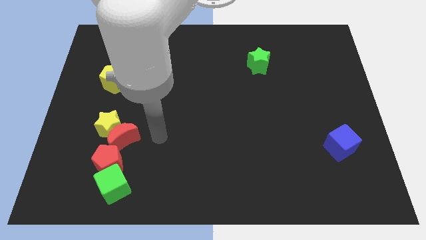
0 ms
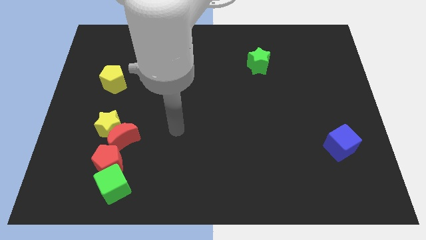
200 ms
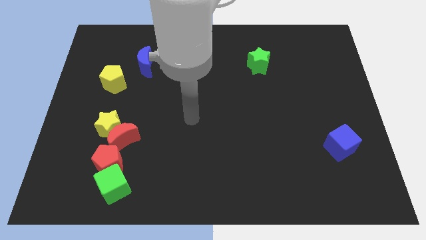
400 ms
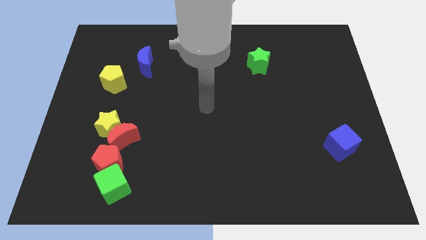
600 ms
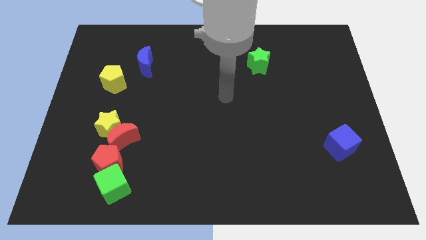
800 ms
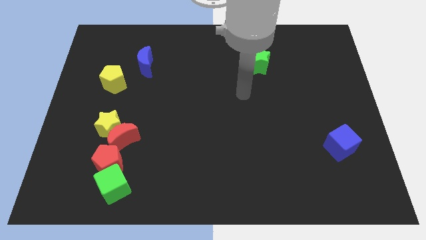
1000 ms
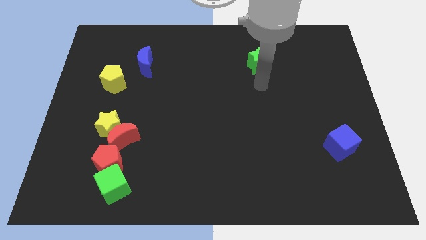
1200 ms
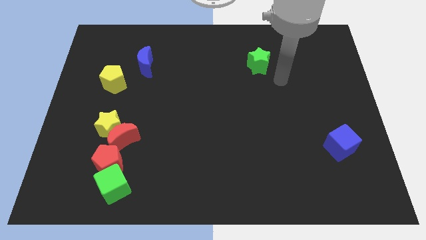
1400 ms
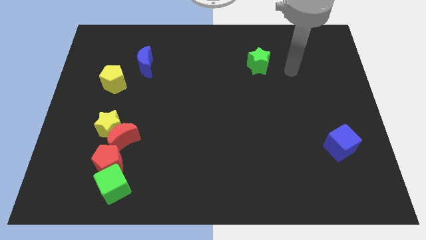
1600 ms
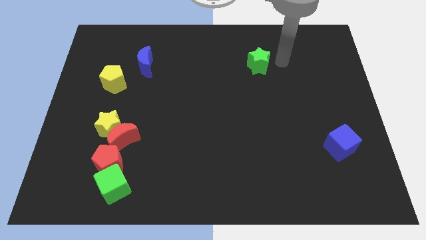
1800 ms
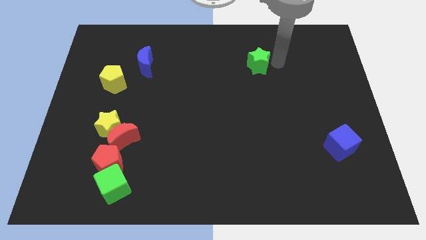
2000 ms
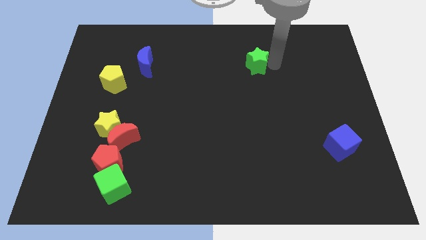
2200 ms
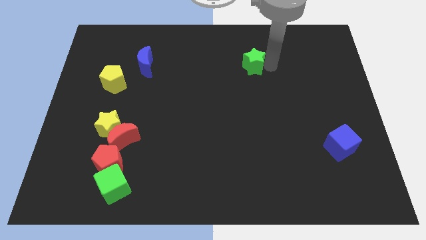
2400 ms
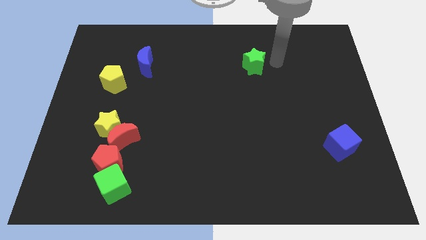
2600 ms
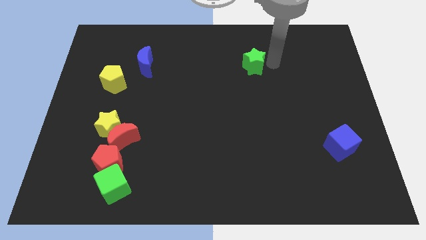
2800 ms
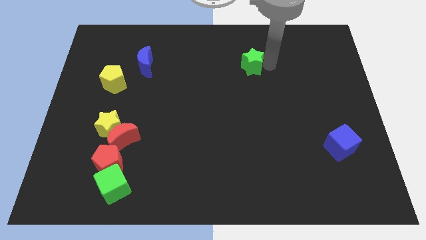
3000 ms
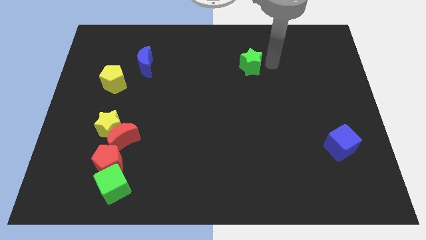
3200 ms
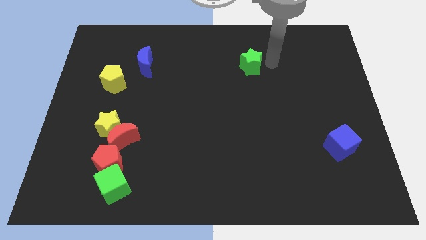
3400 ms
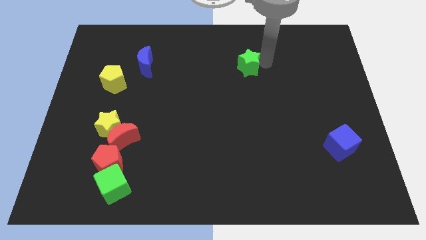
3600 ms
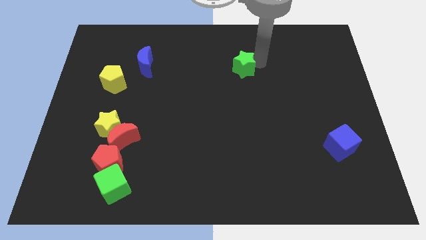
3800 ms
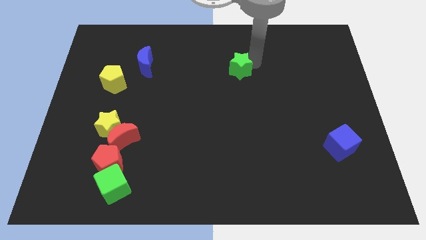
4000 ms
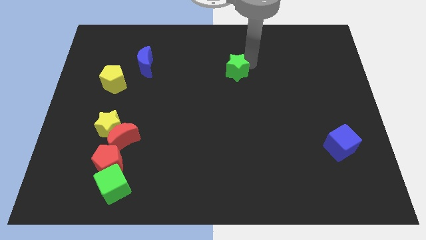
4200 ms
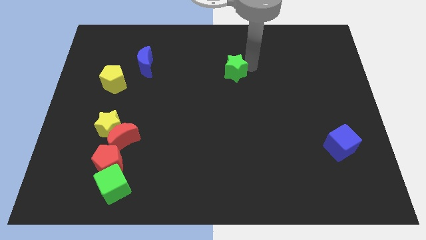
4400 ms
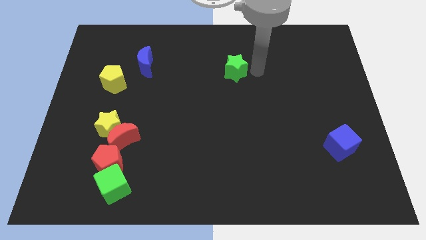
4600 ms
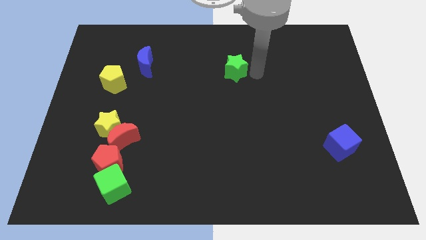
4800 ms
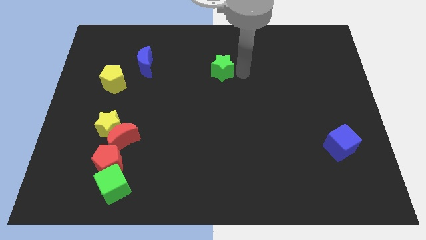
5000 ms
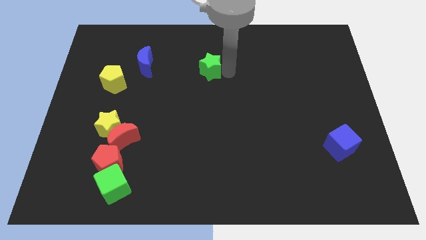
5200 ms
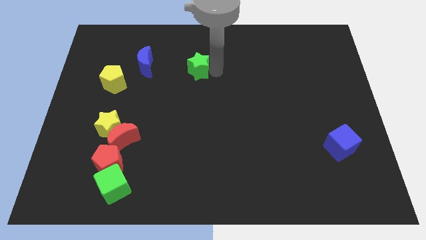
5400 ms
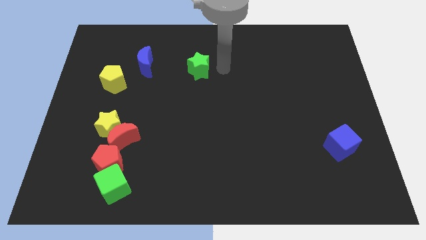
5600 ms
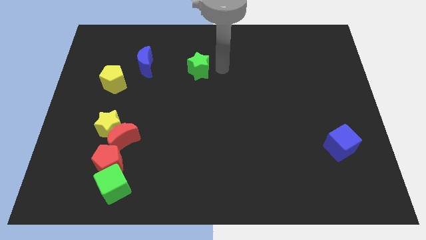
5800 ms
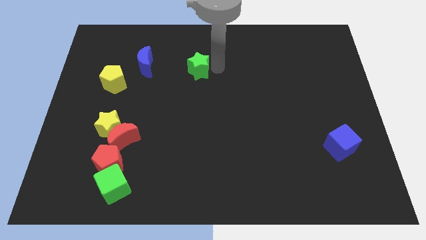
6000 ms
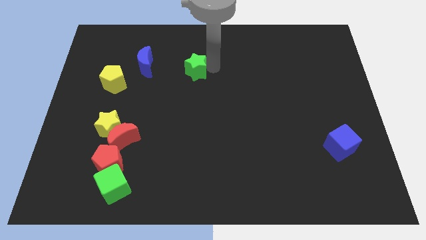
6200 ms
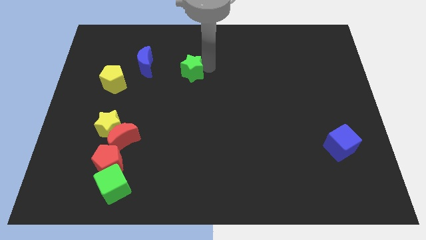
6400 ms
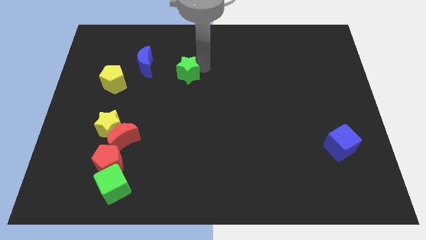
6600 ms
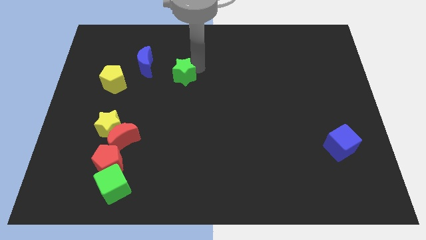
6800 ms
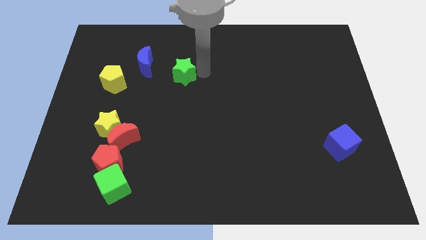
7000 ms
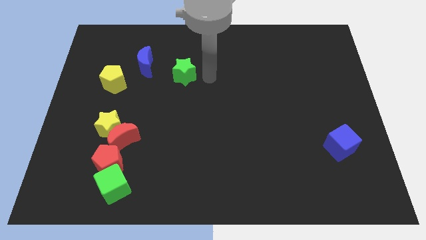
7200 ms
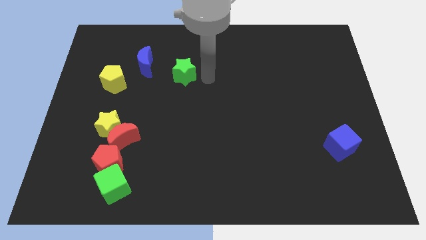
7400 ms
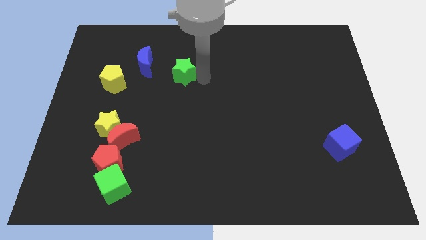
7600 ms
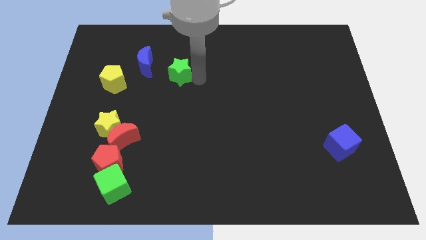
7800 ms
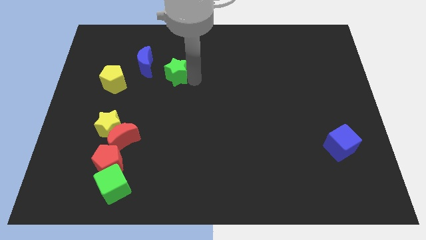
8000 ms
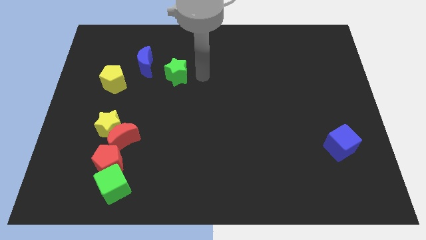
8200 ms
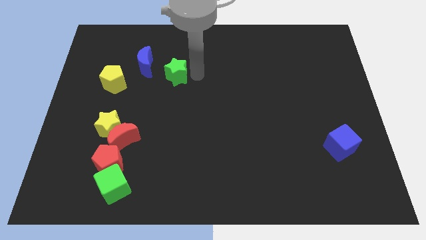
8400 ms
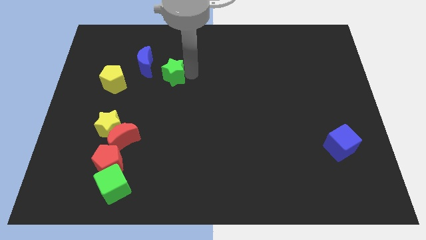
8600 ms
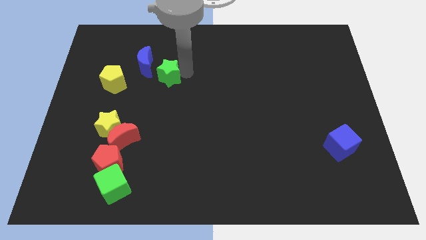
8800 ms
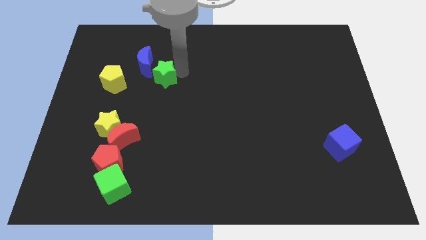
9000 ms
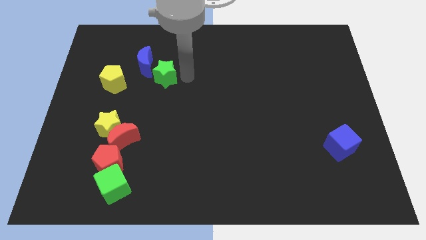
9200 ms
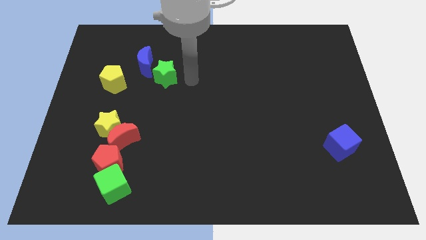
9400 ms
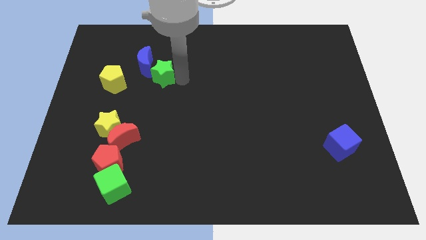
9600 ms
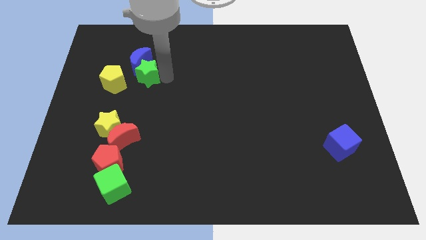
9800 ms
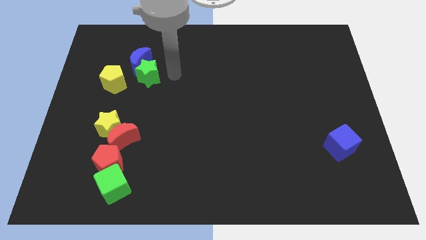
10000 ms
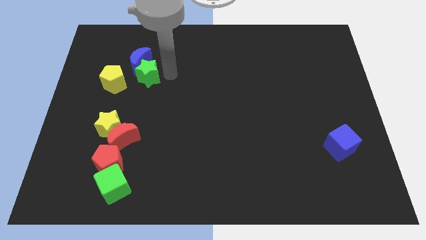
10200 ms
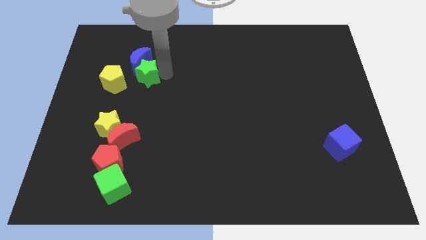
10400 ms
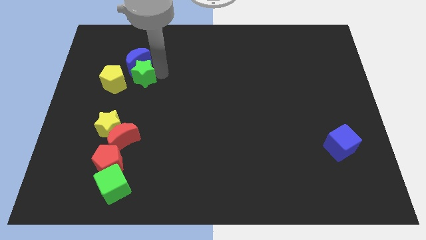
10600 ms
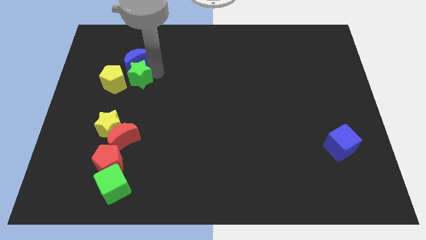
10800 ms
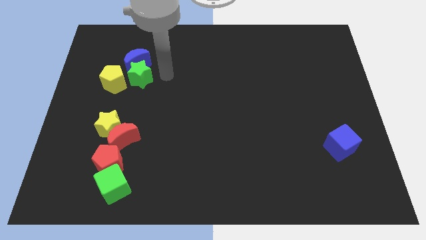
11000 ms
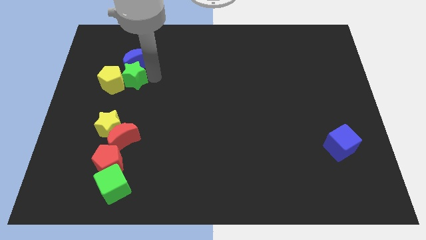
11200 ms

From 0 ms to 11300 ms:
slide the green star next to the yellow pentagon

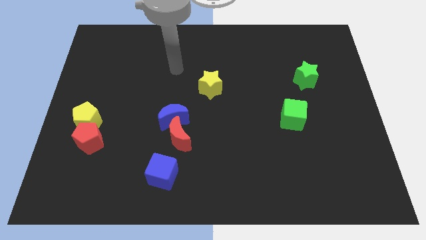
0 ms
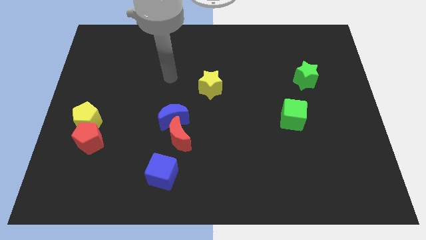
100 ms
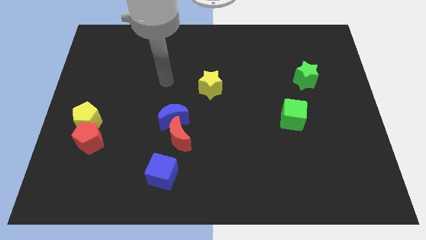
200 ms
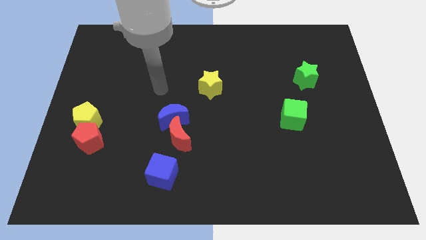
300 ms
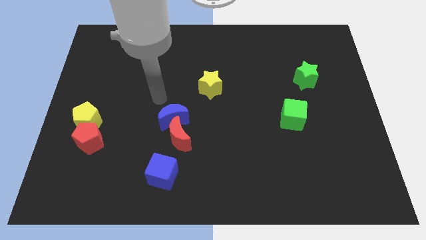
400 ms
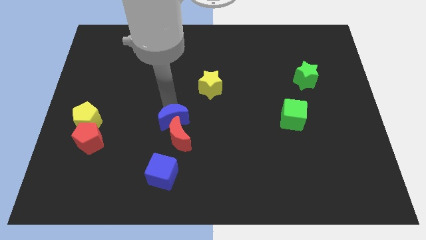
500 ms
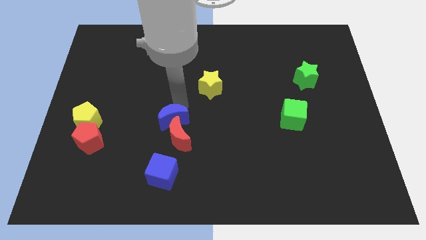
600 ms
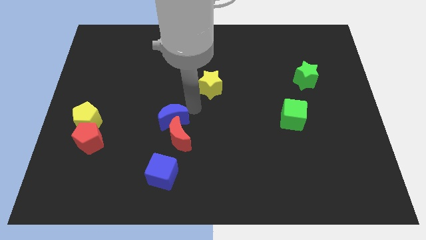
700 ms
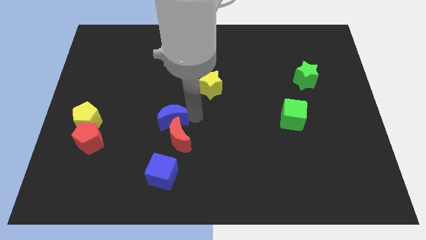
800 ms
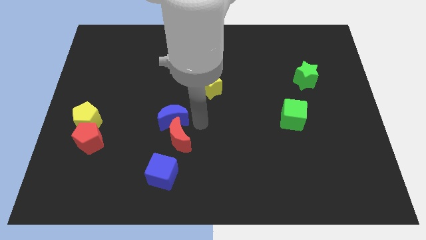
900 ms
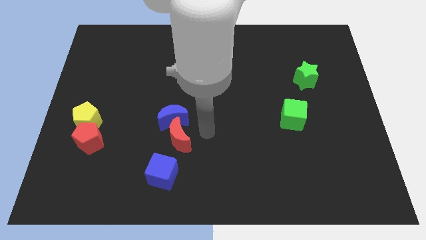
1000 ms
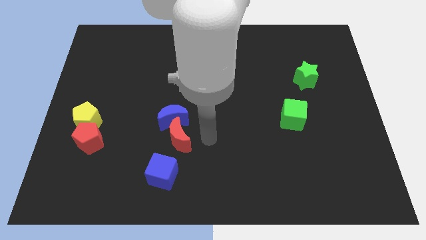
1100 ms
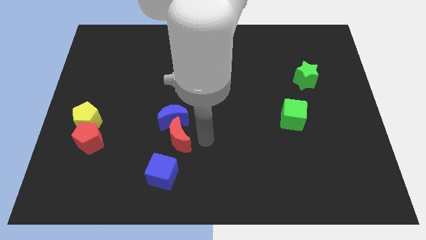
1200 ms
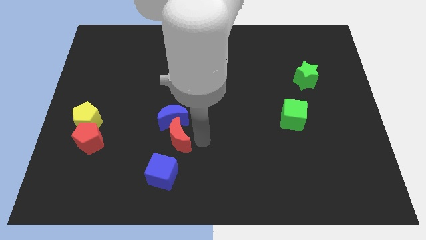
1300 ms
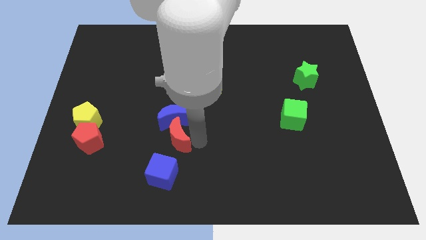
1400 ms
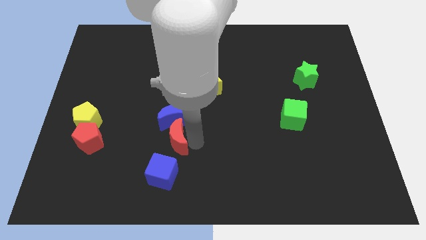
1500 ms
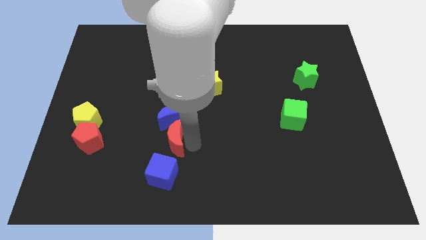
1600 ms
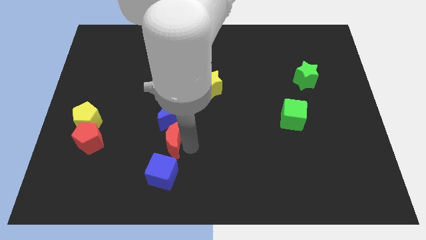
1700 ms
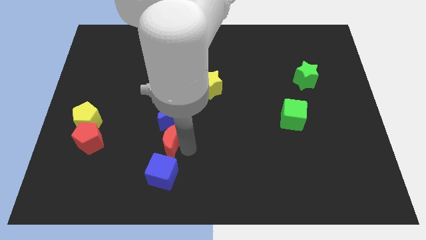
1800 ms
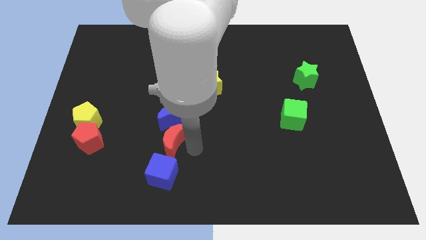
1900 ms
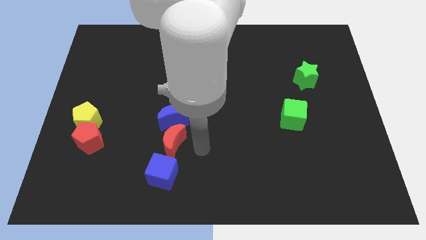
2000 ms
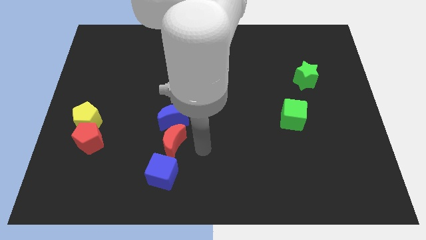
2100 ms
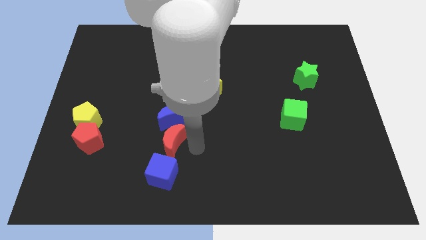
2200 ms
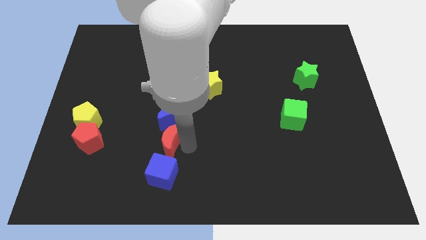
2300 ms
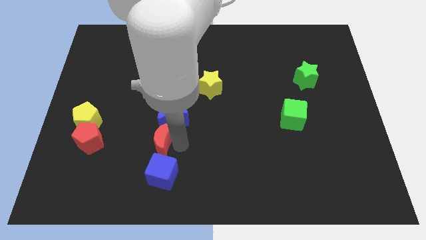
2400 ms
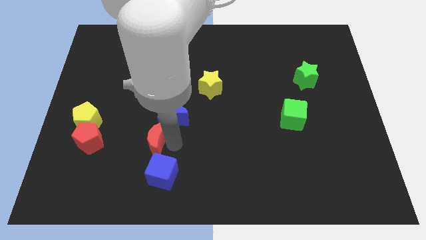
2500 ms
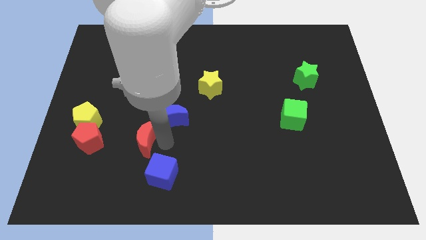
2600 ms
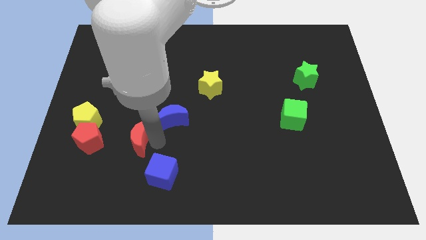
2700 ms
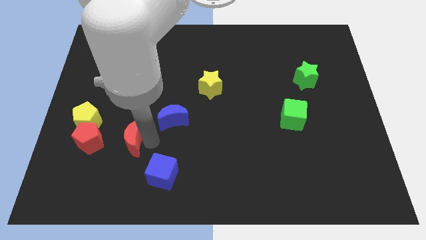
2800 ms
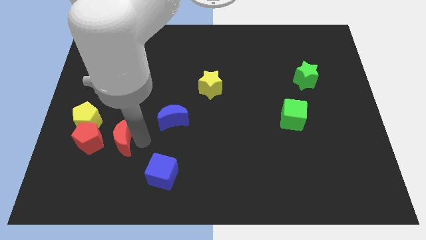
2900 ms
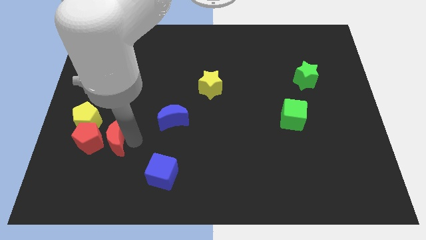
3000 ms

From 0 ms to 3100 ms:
put the red moon close to the red pentagon
